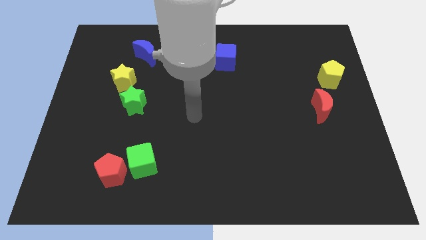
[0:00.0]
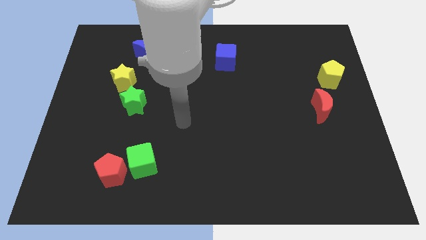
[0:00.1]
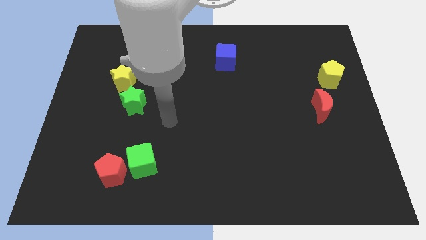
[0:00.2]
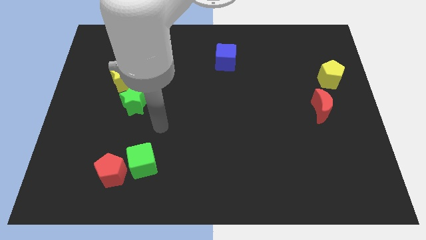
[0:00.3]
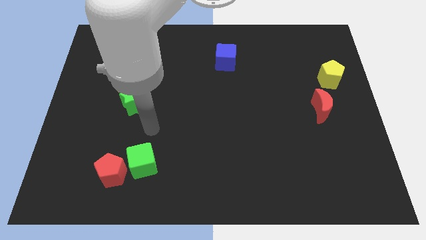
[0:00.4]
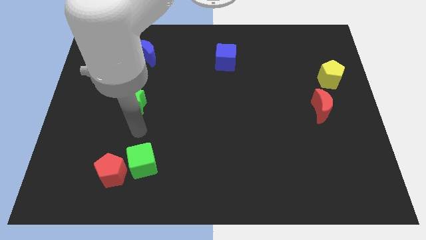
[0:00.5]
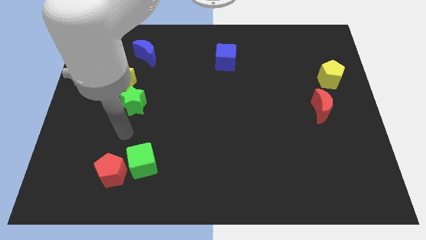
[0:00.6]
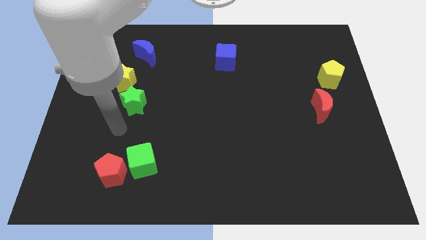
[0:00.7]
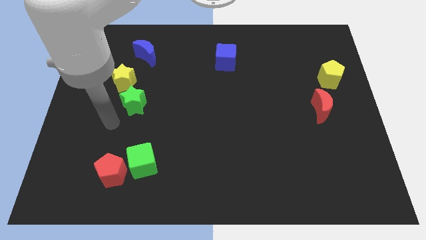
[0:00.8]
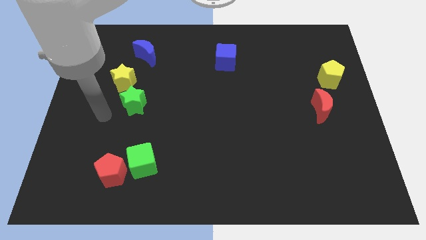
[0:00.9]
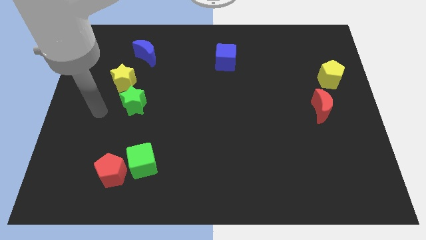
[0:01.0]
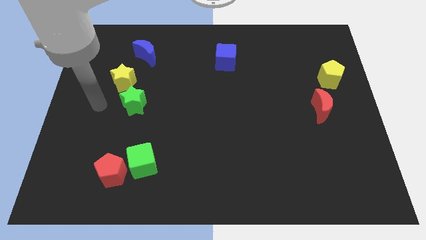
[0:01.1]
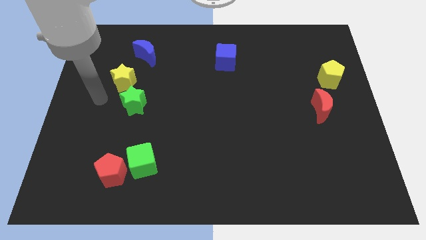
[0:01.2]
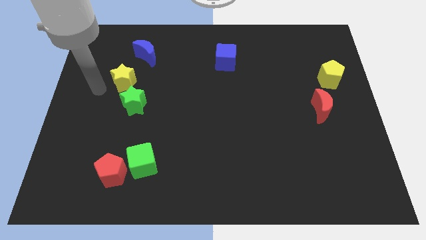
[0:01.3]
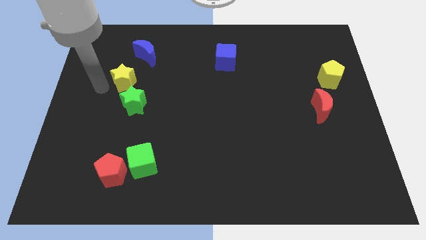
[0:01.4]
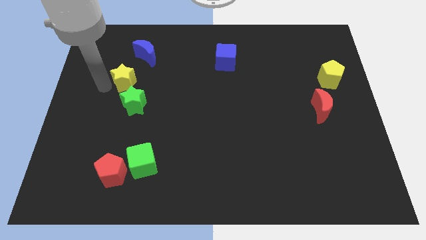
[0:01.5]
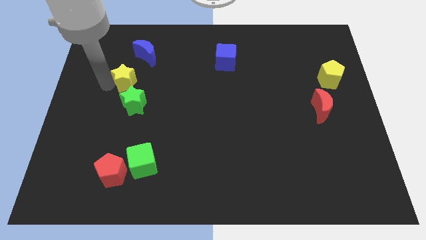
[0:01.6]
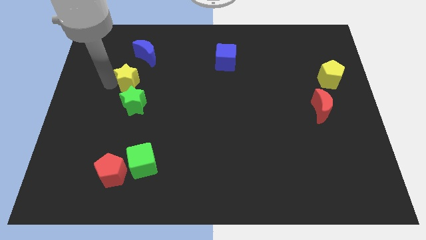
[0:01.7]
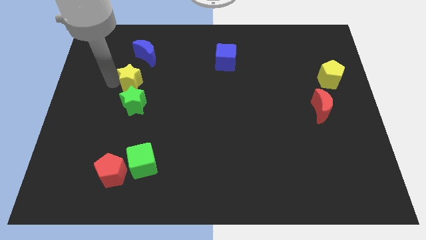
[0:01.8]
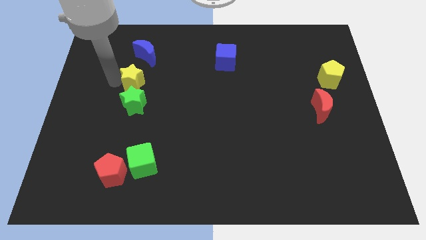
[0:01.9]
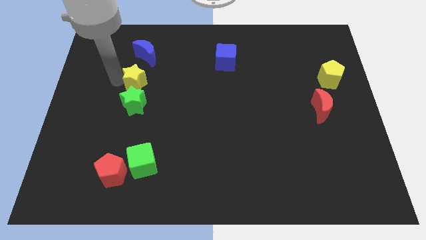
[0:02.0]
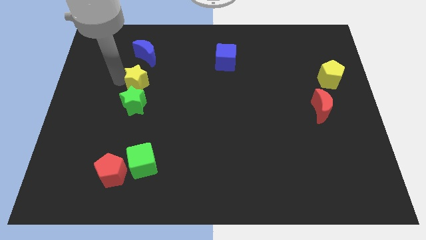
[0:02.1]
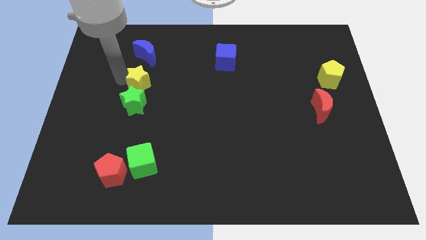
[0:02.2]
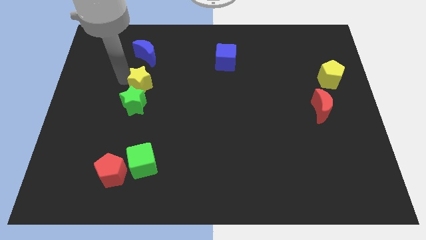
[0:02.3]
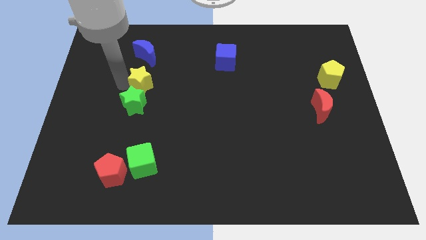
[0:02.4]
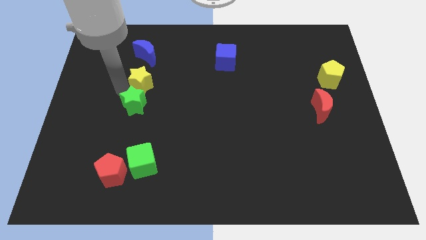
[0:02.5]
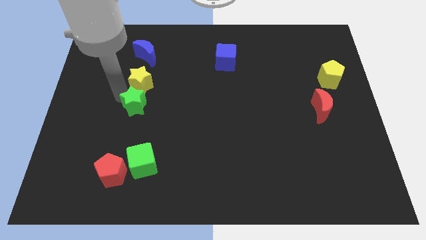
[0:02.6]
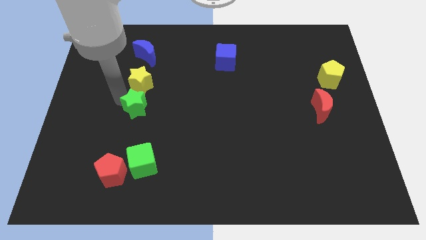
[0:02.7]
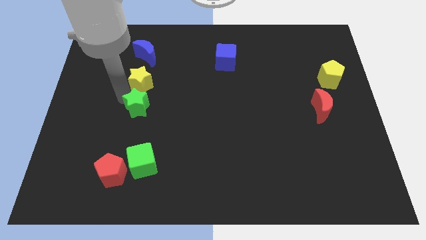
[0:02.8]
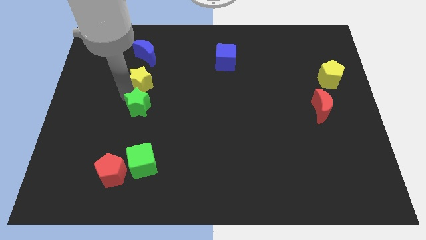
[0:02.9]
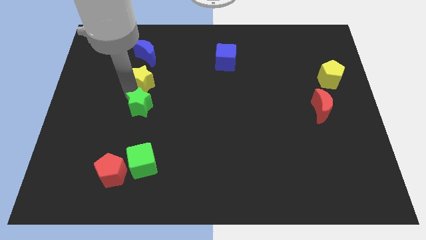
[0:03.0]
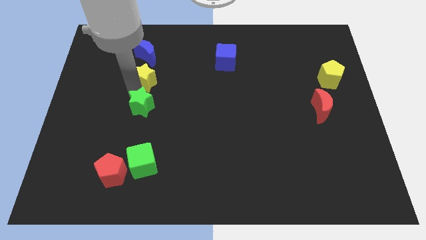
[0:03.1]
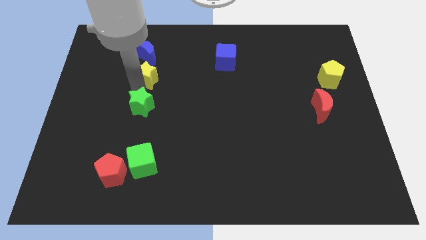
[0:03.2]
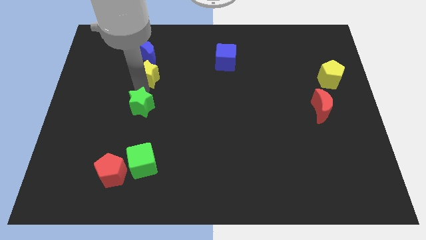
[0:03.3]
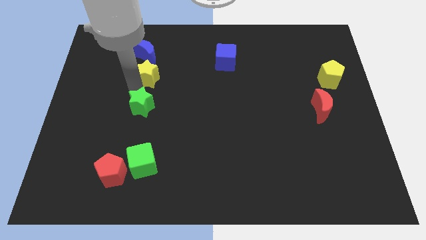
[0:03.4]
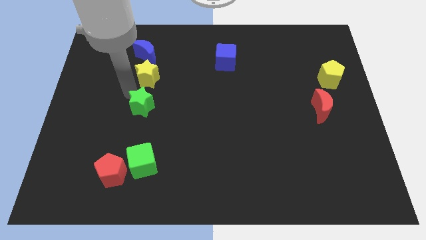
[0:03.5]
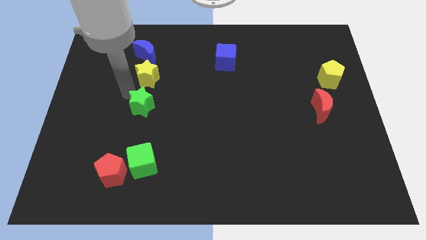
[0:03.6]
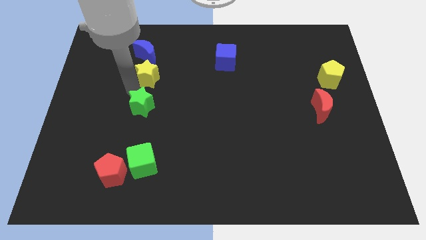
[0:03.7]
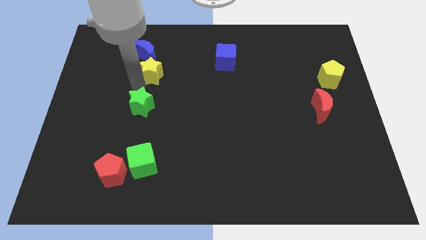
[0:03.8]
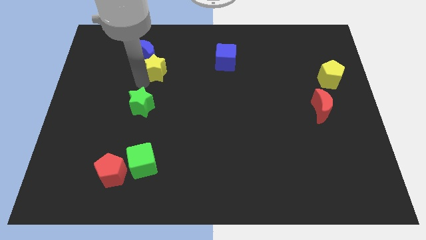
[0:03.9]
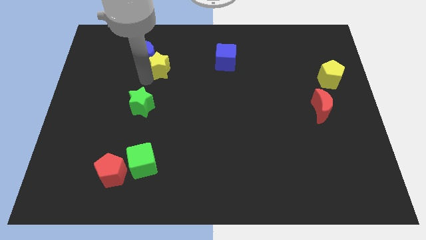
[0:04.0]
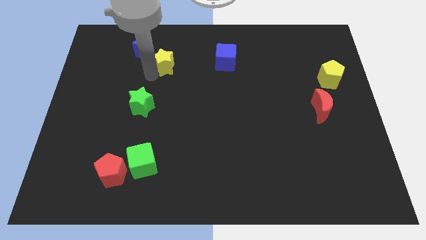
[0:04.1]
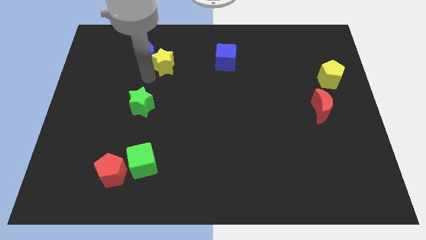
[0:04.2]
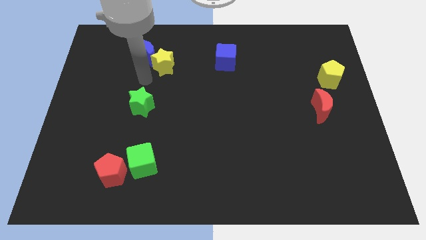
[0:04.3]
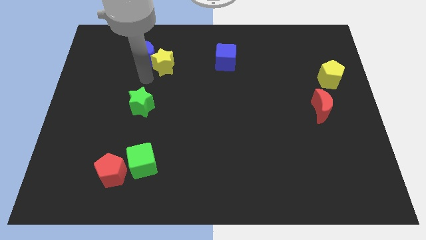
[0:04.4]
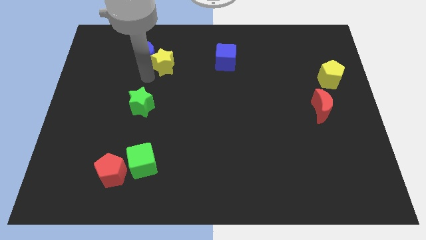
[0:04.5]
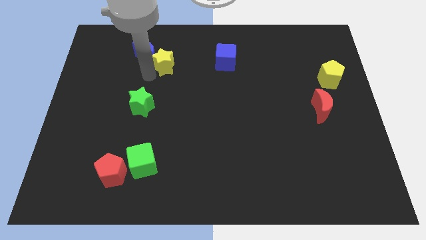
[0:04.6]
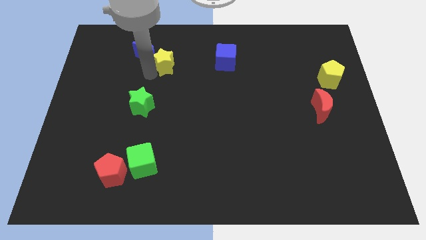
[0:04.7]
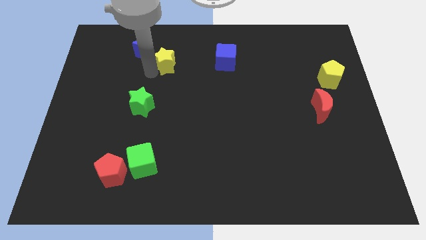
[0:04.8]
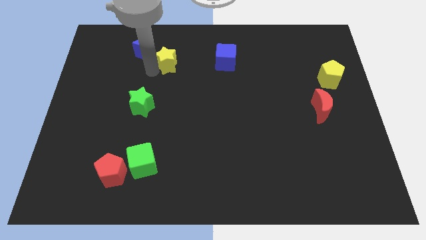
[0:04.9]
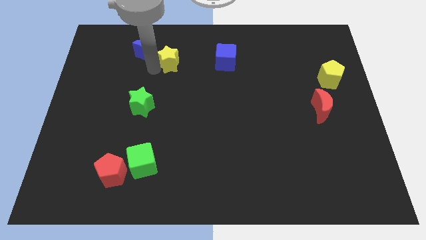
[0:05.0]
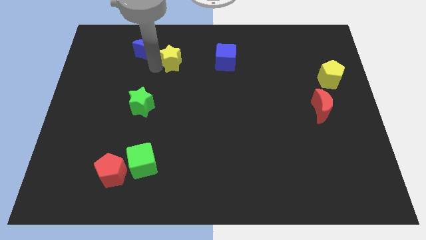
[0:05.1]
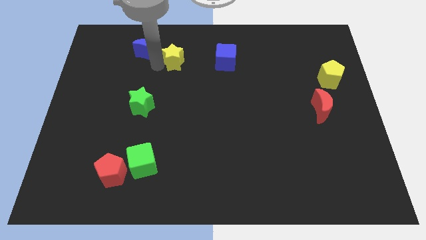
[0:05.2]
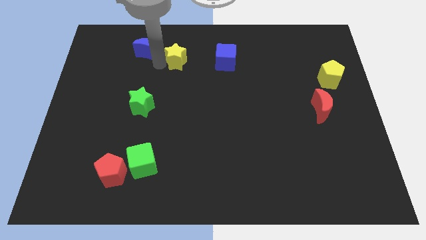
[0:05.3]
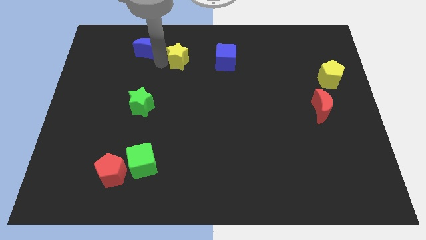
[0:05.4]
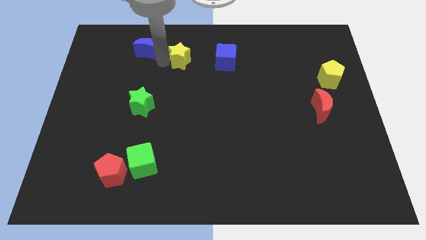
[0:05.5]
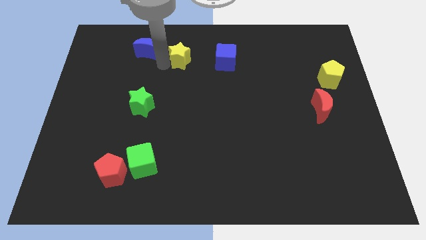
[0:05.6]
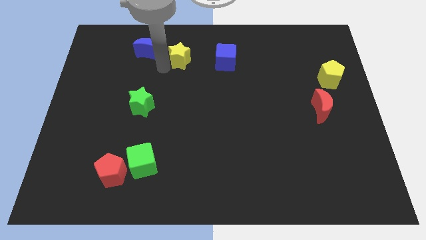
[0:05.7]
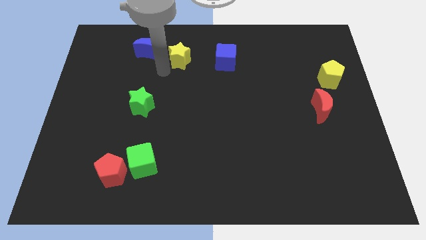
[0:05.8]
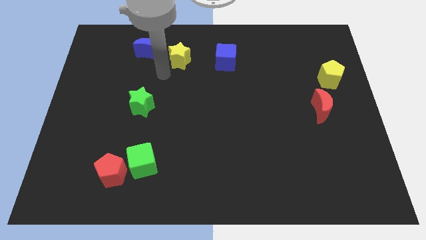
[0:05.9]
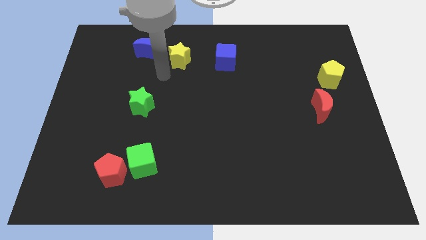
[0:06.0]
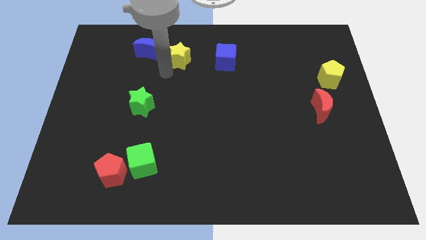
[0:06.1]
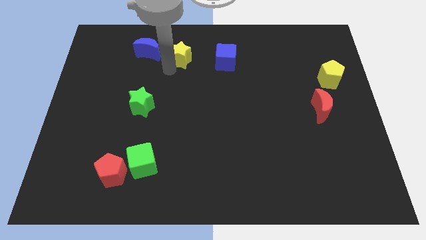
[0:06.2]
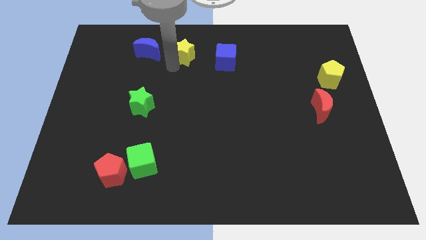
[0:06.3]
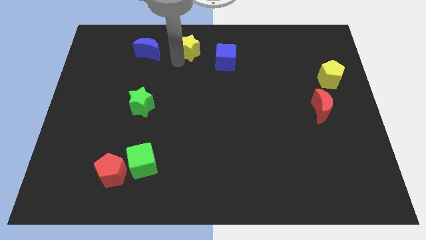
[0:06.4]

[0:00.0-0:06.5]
put the yellow star to the top
